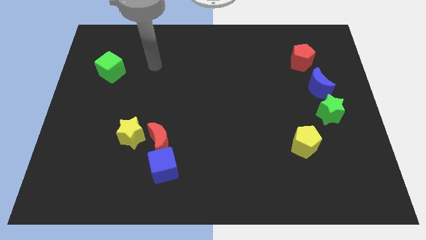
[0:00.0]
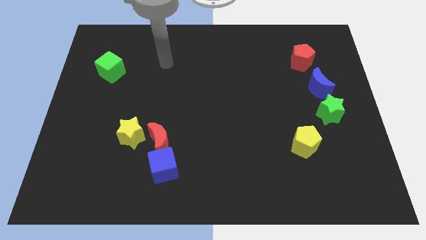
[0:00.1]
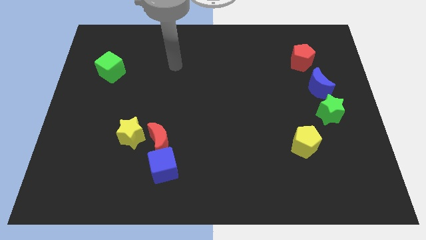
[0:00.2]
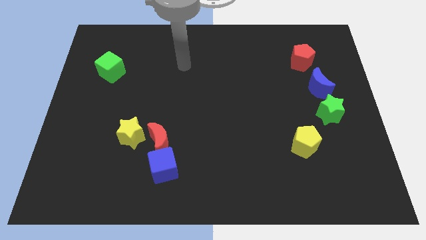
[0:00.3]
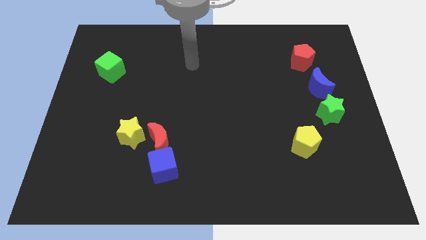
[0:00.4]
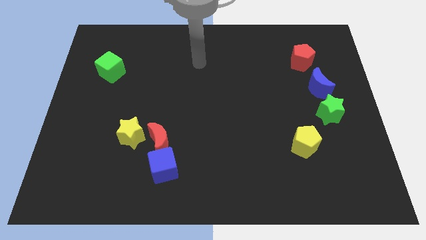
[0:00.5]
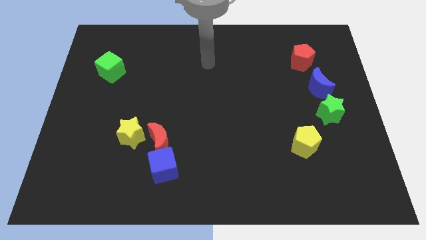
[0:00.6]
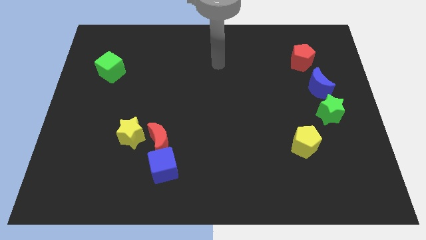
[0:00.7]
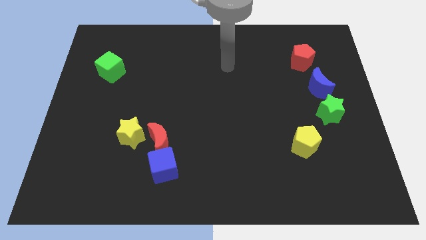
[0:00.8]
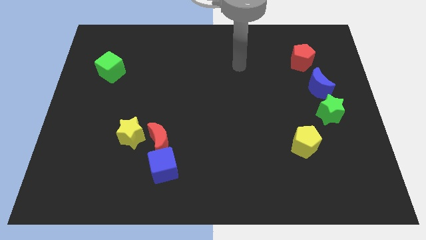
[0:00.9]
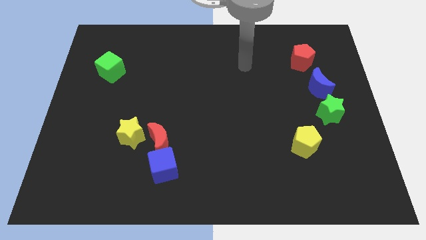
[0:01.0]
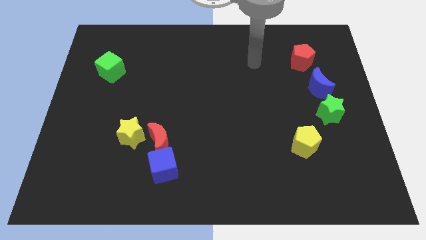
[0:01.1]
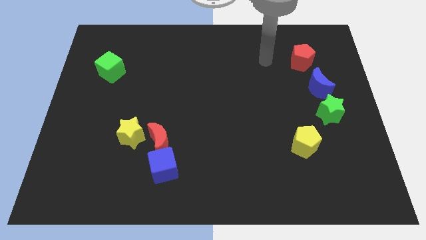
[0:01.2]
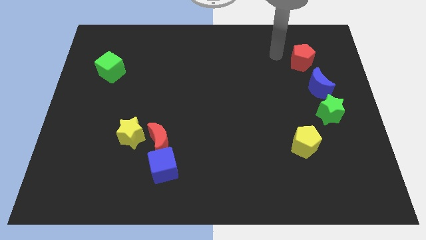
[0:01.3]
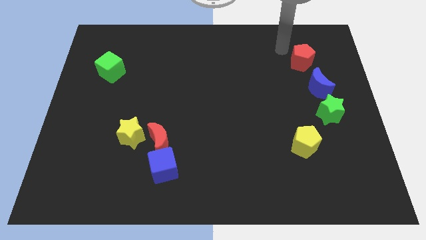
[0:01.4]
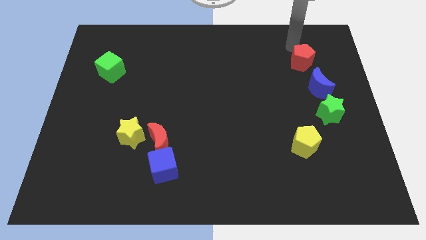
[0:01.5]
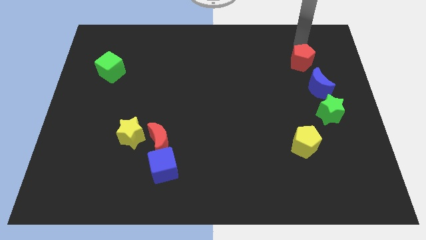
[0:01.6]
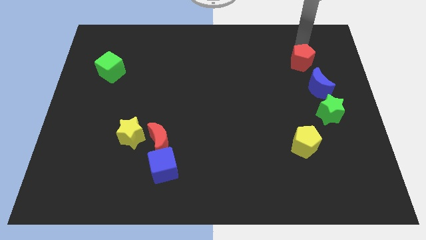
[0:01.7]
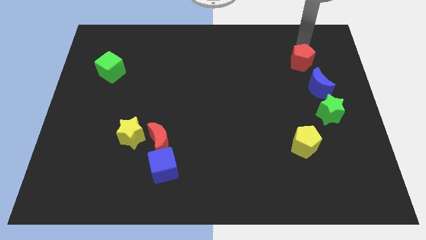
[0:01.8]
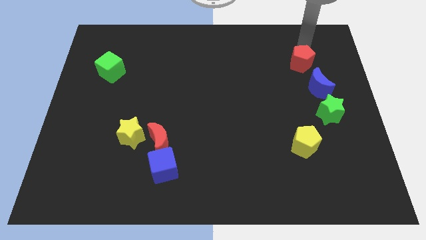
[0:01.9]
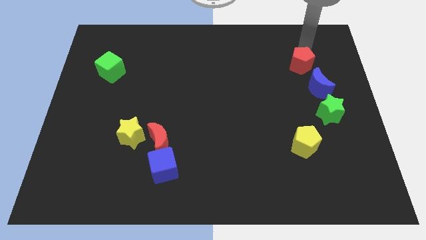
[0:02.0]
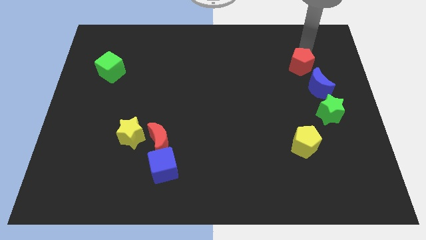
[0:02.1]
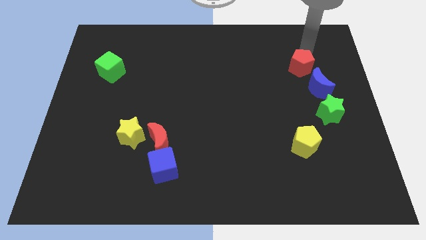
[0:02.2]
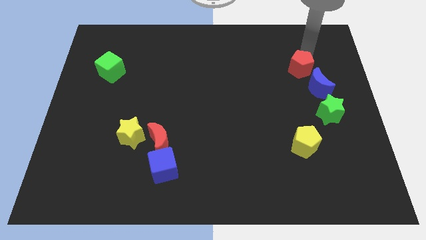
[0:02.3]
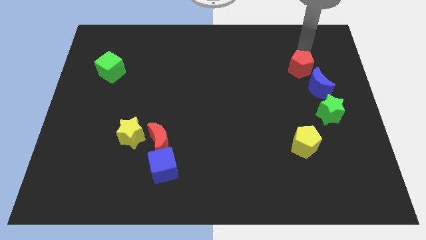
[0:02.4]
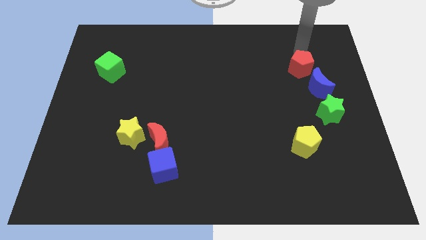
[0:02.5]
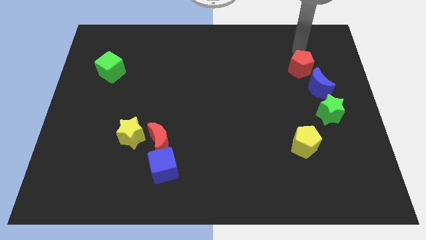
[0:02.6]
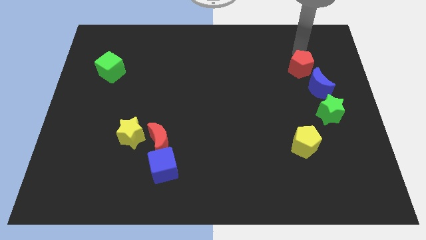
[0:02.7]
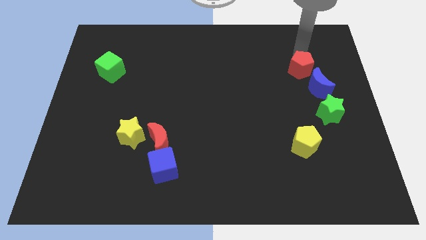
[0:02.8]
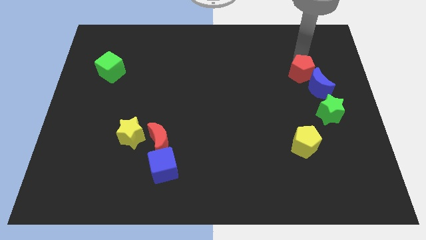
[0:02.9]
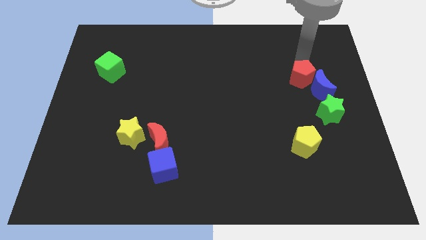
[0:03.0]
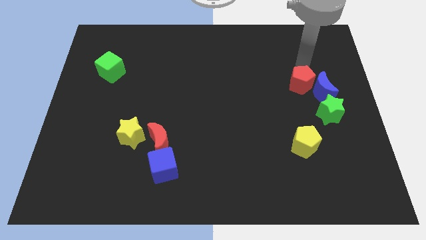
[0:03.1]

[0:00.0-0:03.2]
slightly push the red pentagon downwards

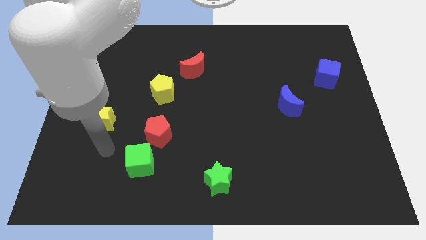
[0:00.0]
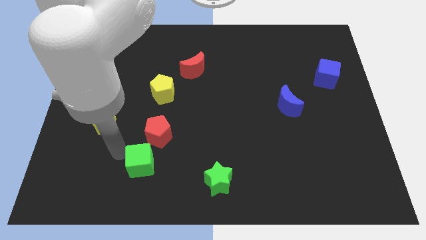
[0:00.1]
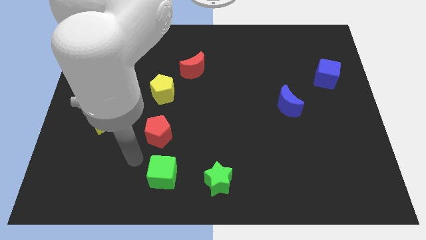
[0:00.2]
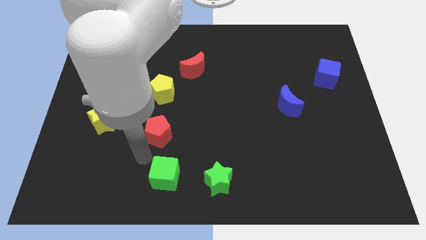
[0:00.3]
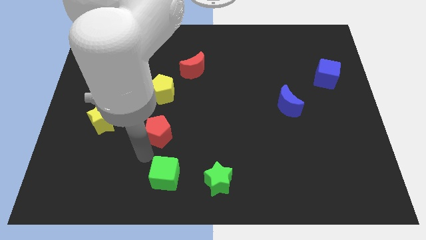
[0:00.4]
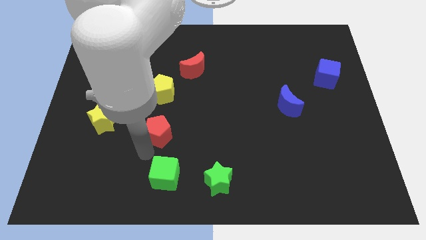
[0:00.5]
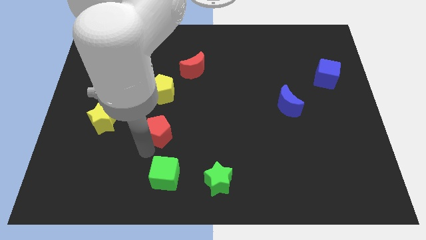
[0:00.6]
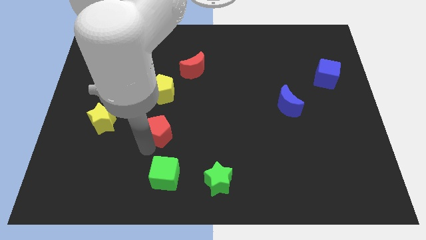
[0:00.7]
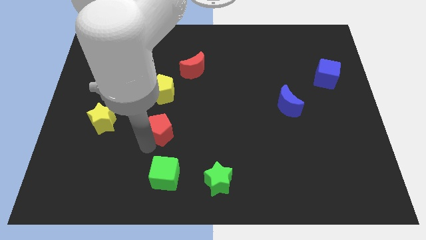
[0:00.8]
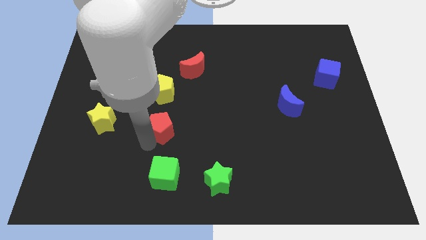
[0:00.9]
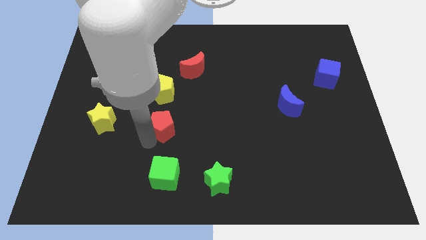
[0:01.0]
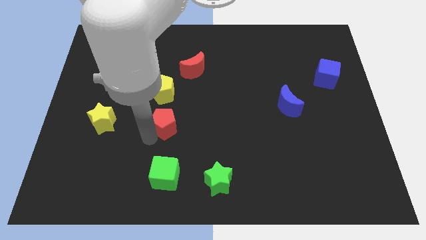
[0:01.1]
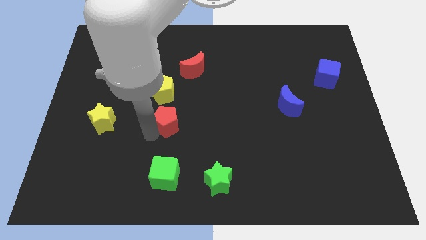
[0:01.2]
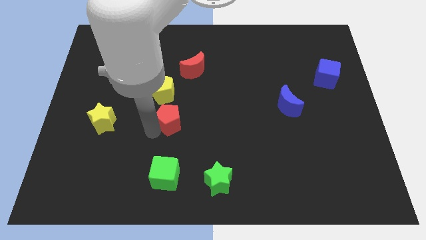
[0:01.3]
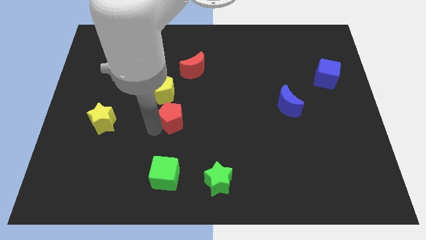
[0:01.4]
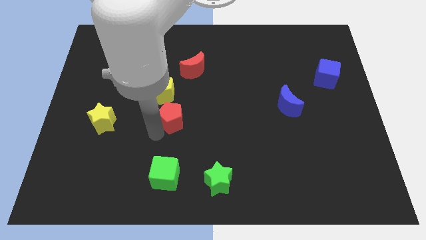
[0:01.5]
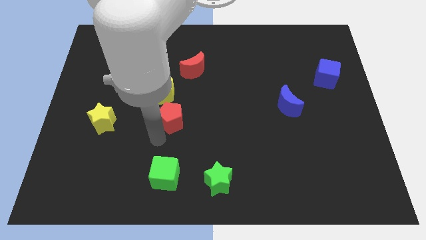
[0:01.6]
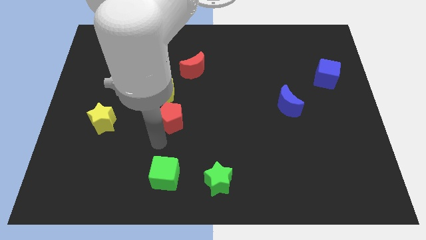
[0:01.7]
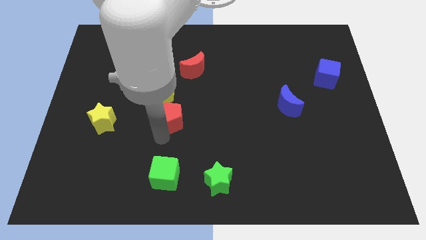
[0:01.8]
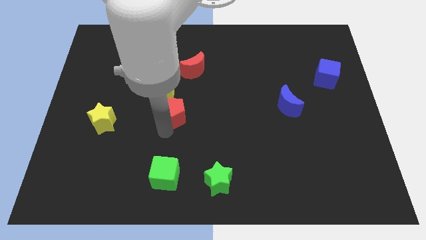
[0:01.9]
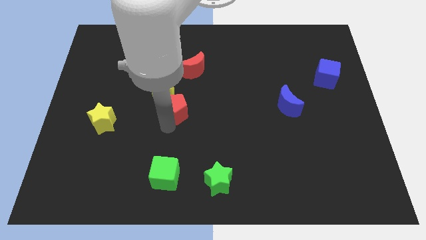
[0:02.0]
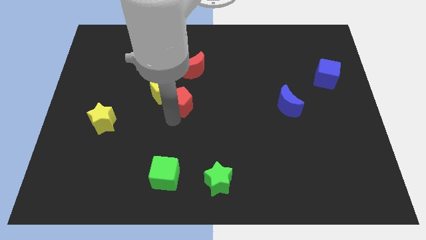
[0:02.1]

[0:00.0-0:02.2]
slightly slide the red pentagon up

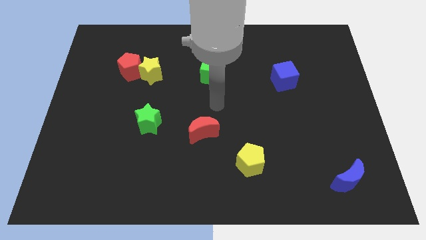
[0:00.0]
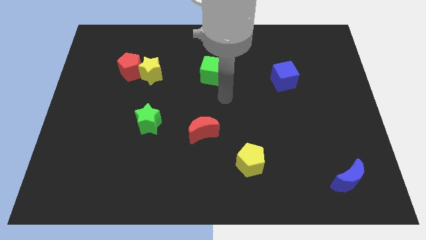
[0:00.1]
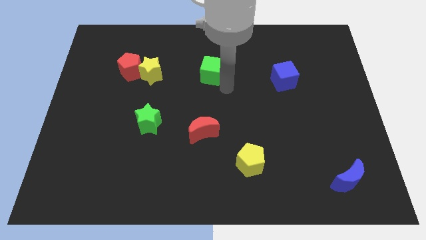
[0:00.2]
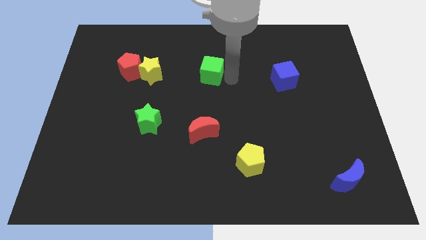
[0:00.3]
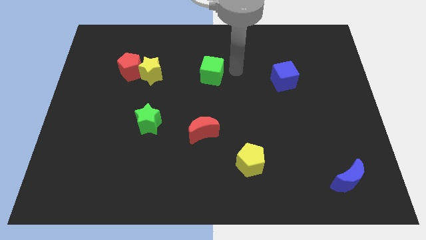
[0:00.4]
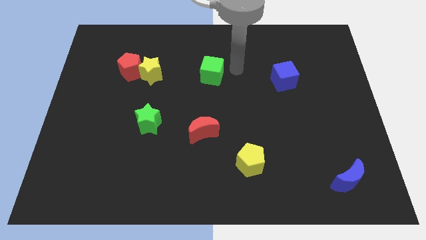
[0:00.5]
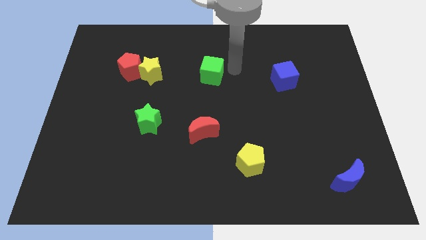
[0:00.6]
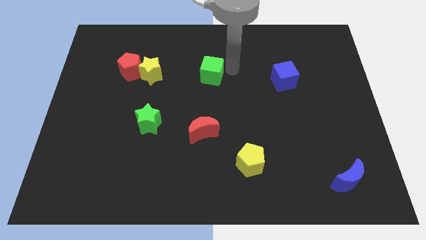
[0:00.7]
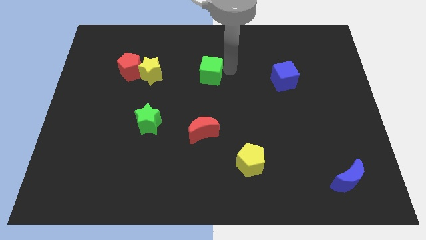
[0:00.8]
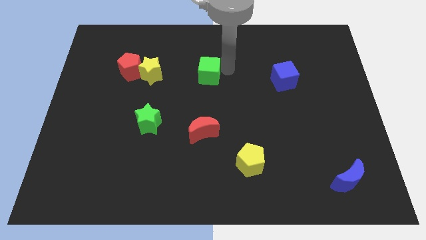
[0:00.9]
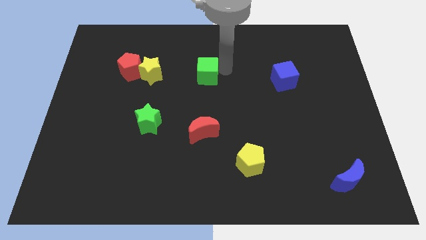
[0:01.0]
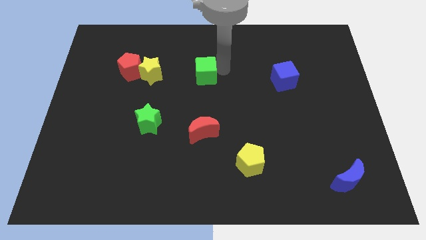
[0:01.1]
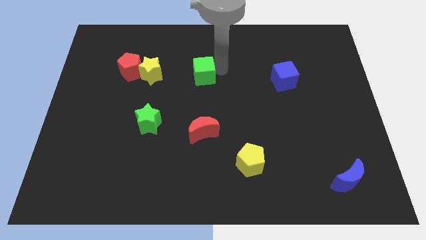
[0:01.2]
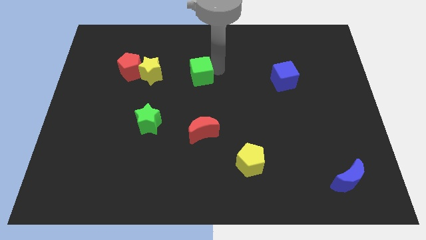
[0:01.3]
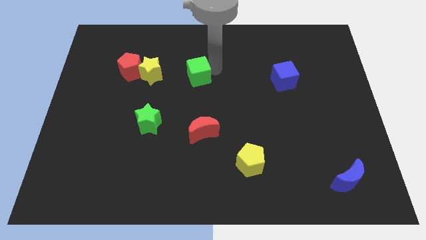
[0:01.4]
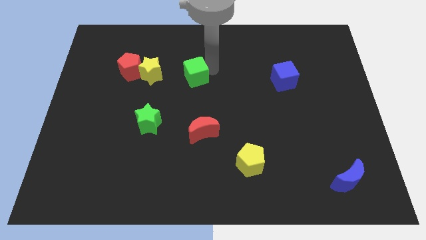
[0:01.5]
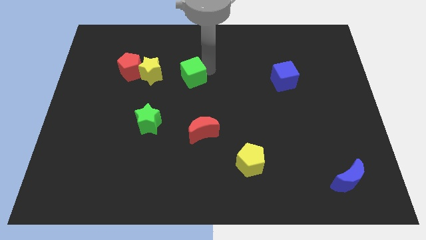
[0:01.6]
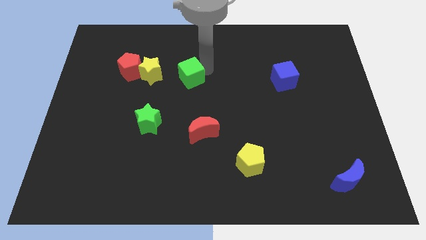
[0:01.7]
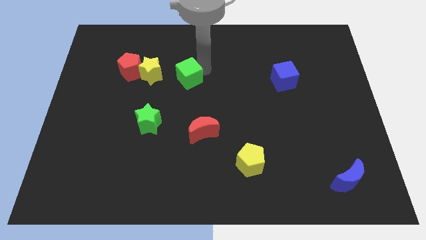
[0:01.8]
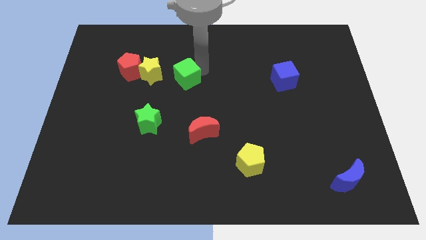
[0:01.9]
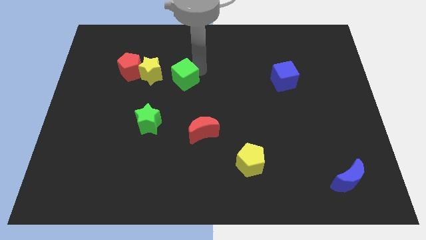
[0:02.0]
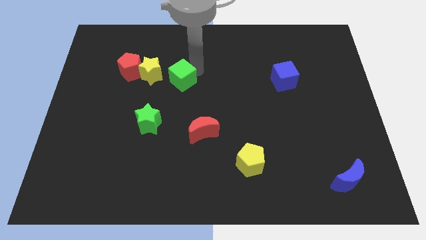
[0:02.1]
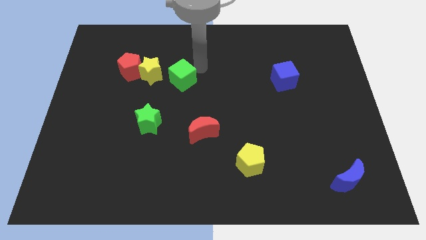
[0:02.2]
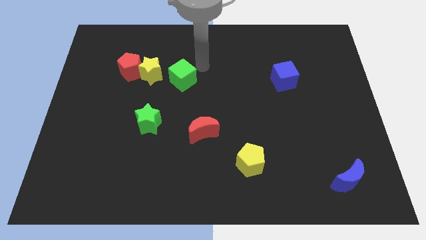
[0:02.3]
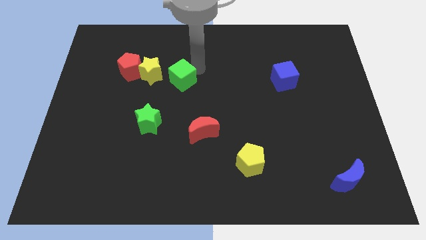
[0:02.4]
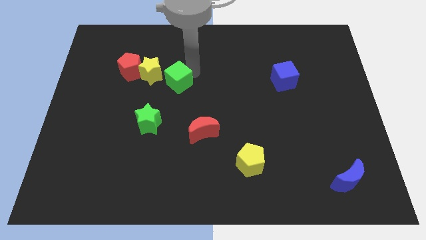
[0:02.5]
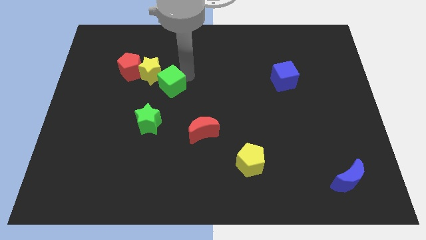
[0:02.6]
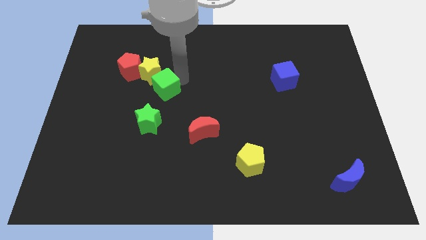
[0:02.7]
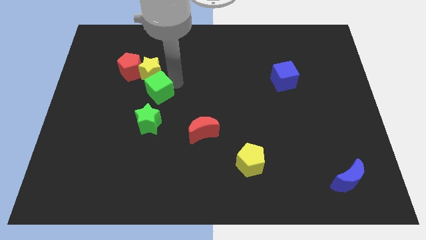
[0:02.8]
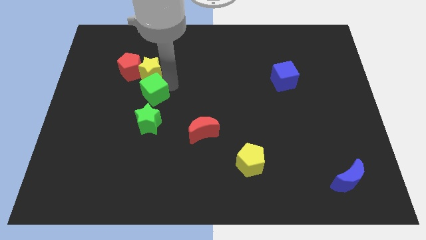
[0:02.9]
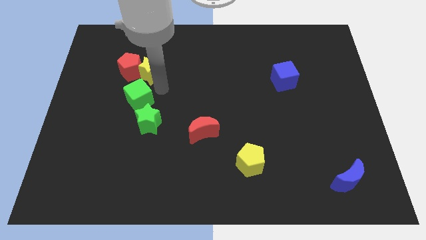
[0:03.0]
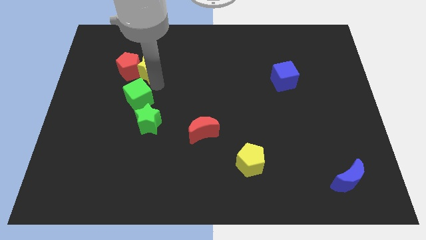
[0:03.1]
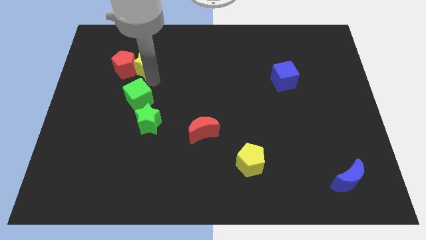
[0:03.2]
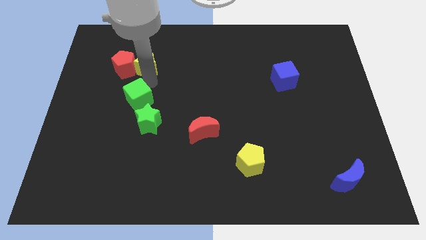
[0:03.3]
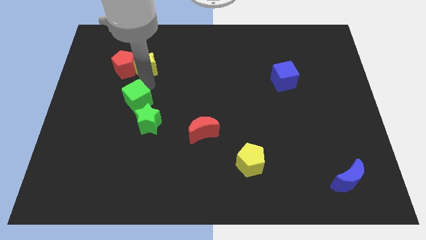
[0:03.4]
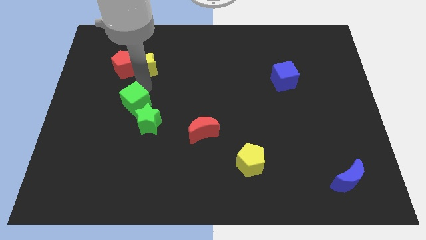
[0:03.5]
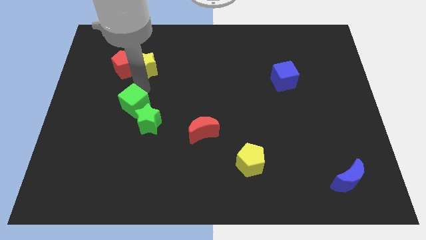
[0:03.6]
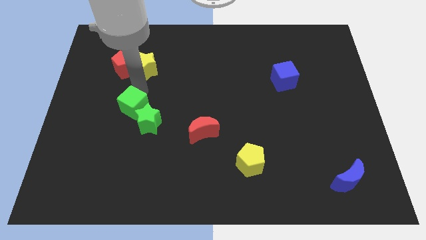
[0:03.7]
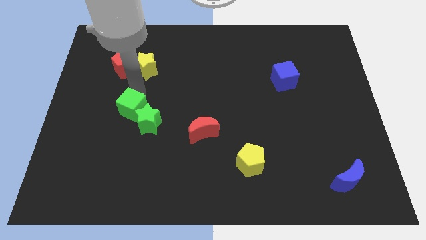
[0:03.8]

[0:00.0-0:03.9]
push the green cube down and then to the left
